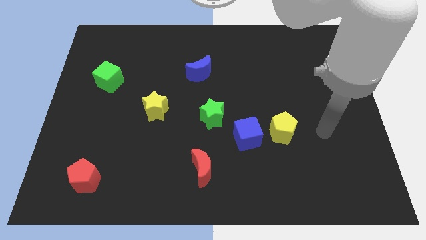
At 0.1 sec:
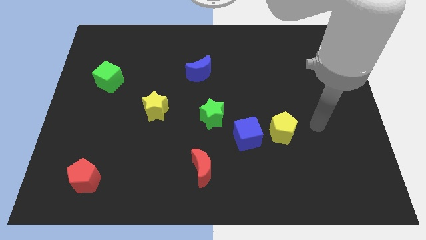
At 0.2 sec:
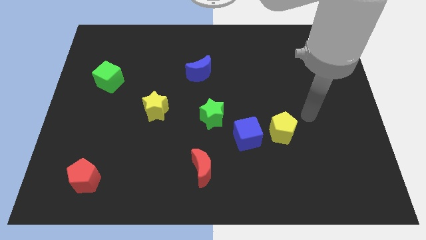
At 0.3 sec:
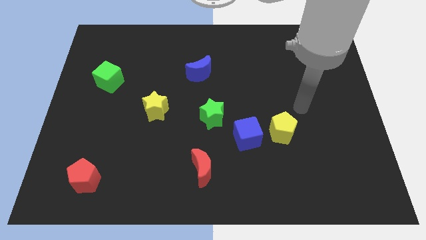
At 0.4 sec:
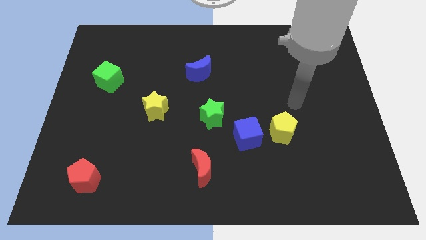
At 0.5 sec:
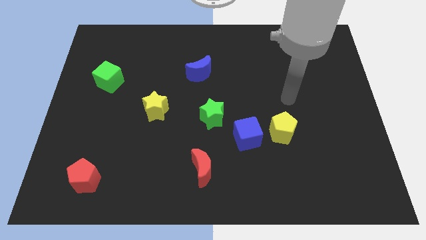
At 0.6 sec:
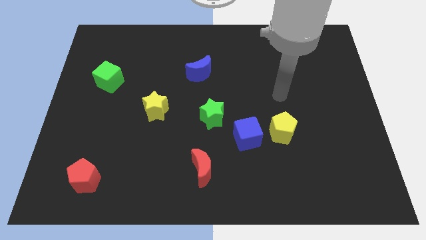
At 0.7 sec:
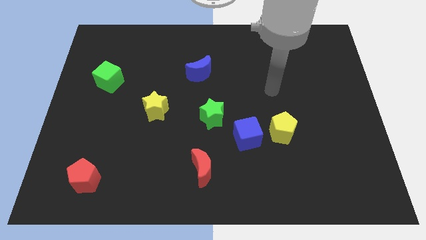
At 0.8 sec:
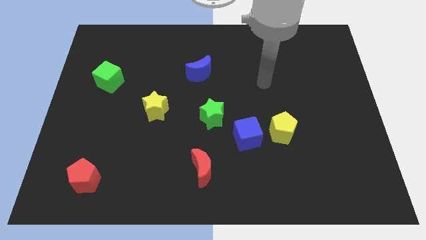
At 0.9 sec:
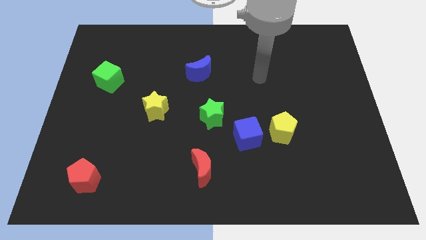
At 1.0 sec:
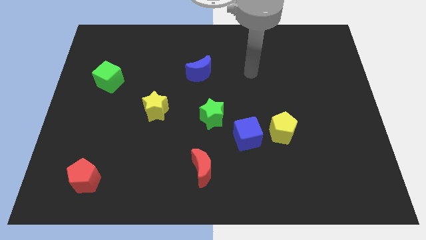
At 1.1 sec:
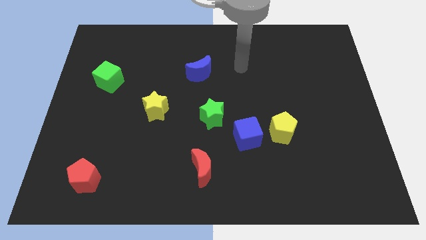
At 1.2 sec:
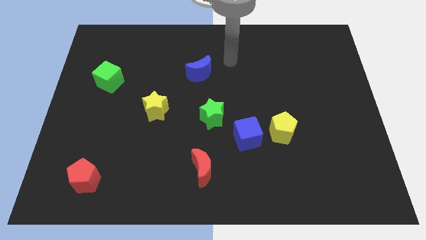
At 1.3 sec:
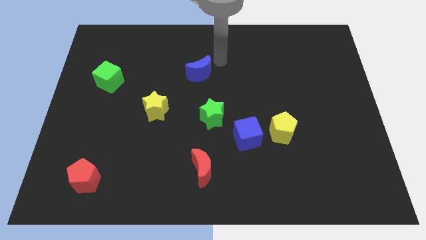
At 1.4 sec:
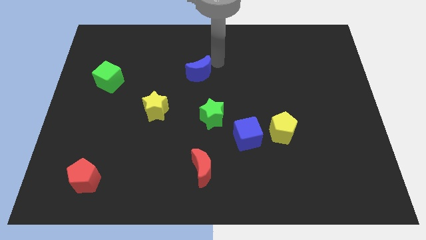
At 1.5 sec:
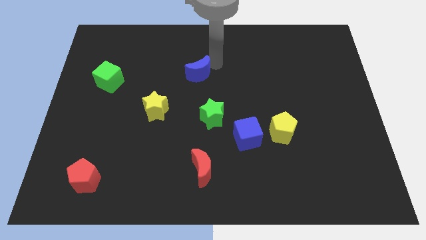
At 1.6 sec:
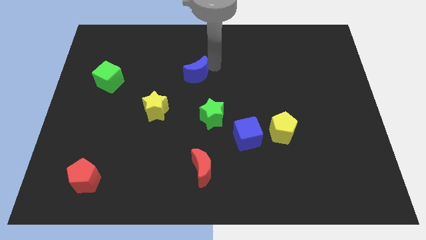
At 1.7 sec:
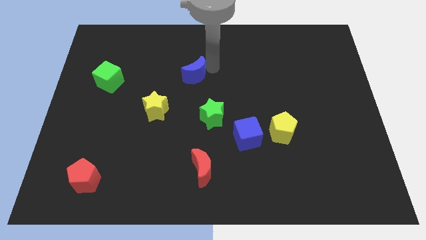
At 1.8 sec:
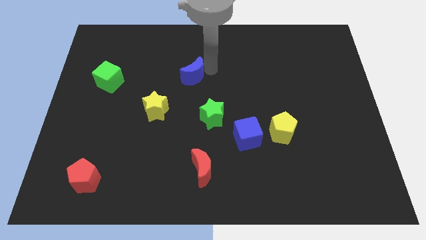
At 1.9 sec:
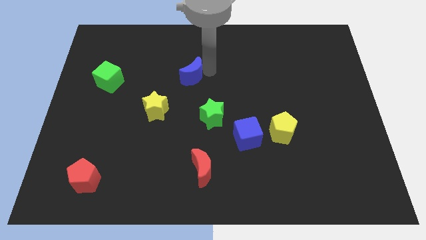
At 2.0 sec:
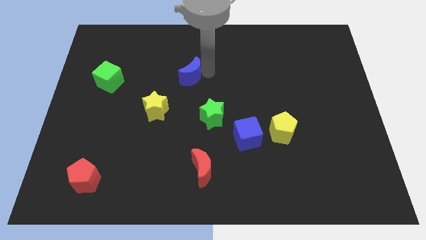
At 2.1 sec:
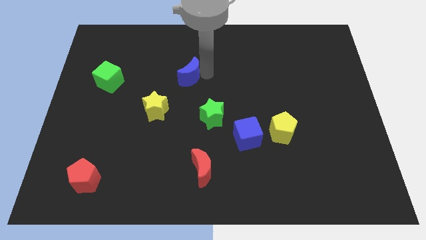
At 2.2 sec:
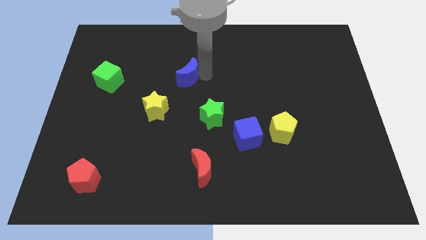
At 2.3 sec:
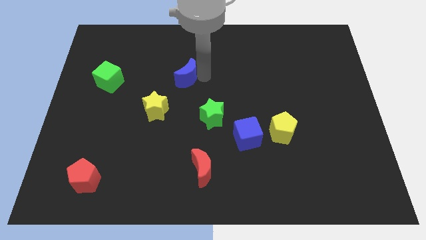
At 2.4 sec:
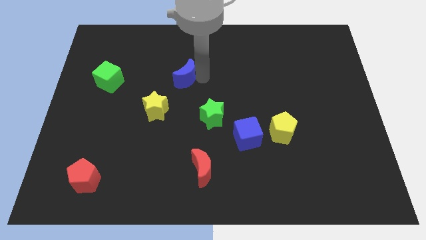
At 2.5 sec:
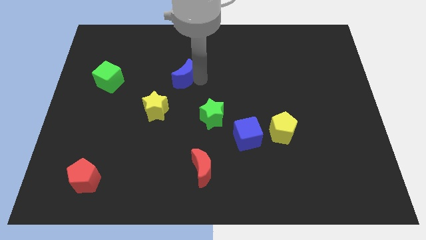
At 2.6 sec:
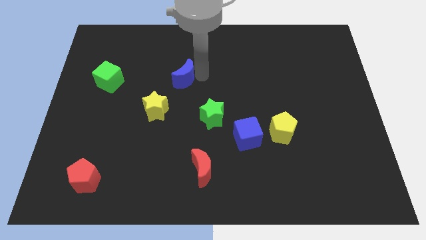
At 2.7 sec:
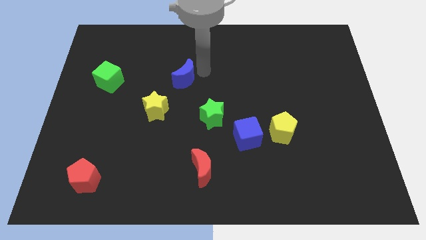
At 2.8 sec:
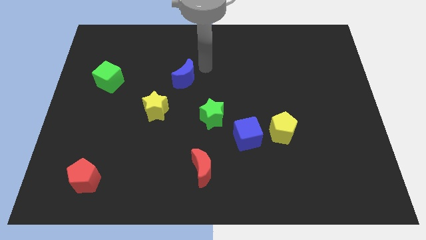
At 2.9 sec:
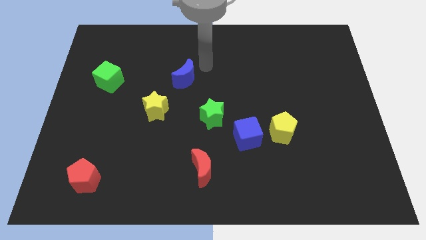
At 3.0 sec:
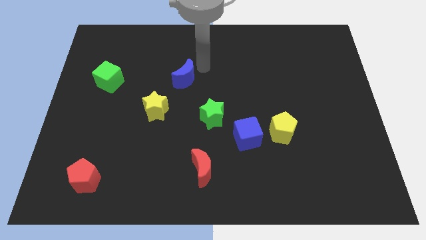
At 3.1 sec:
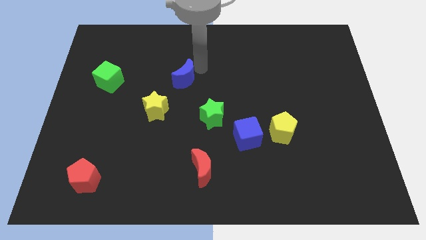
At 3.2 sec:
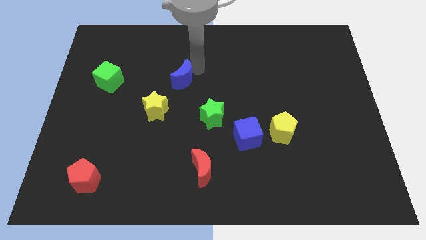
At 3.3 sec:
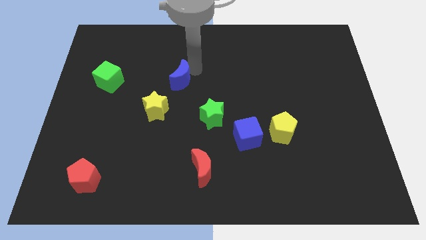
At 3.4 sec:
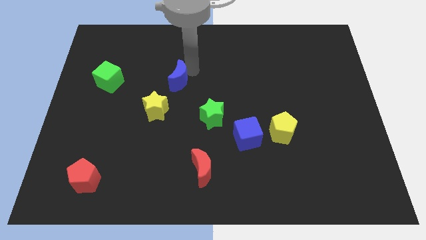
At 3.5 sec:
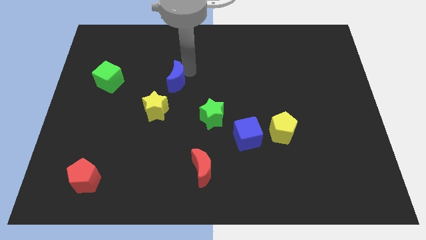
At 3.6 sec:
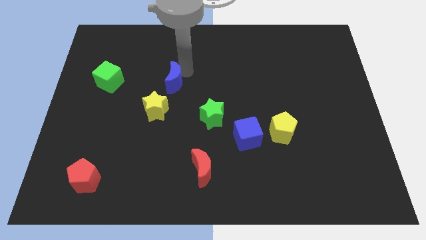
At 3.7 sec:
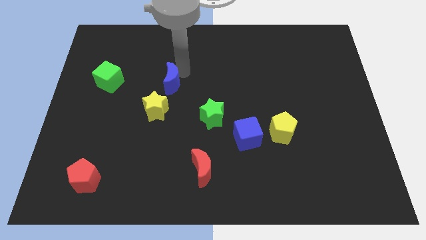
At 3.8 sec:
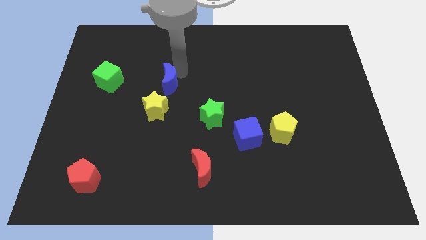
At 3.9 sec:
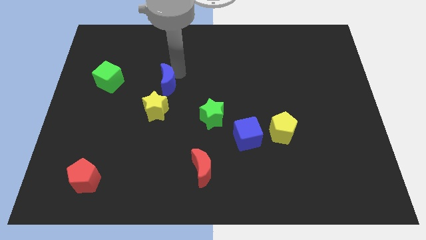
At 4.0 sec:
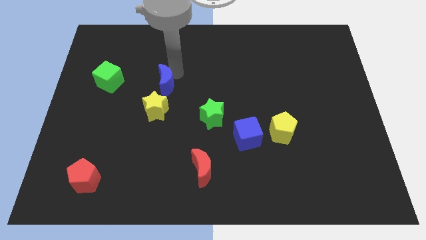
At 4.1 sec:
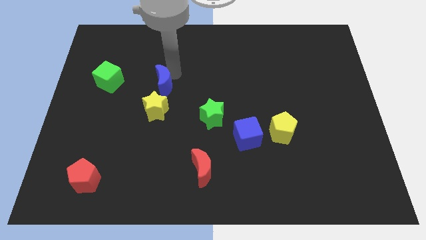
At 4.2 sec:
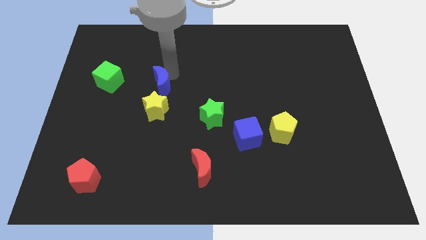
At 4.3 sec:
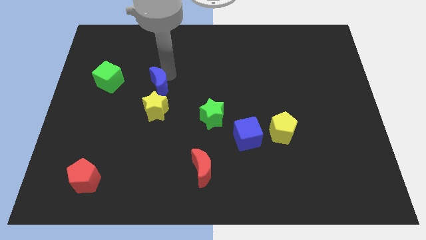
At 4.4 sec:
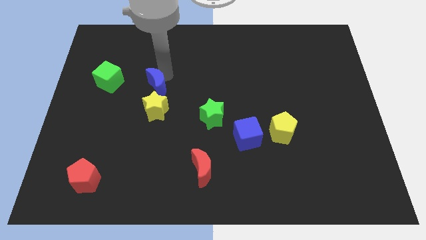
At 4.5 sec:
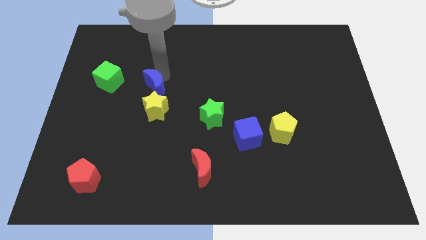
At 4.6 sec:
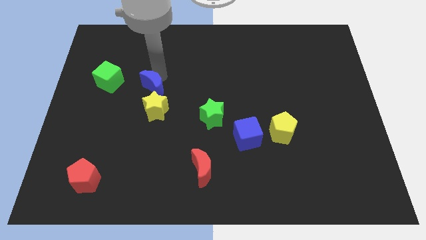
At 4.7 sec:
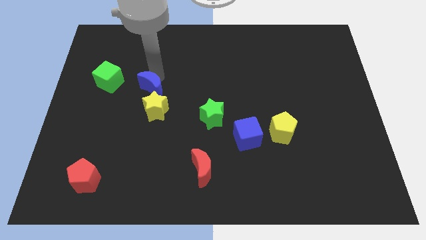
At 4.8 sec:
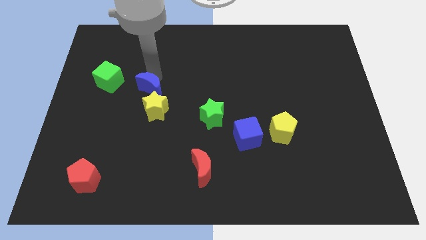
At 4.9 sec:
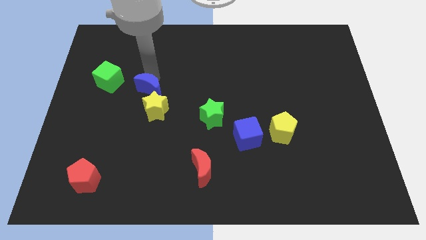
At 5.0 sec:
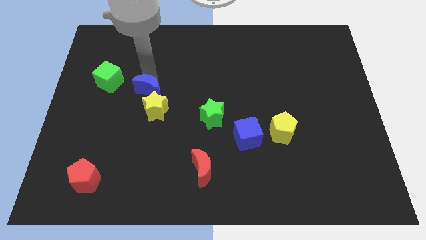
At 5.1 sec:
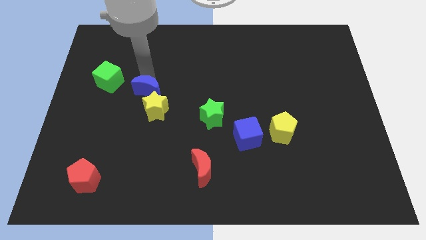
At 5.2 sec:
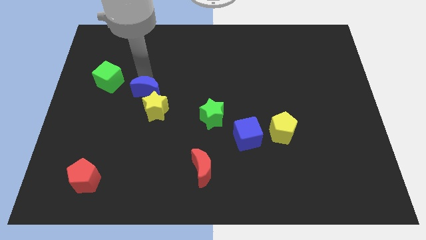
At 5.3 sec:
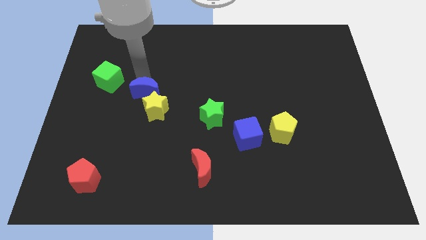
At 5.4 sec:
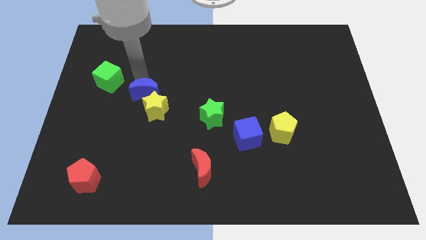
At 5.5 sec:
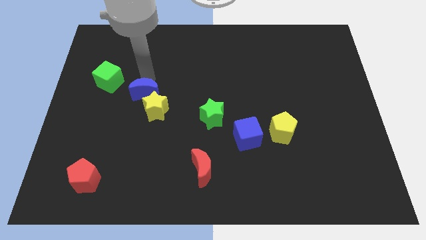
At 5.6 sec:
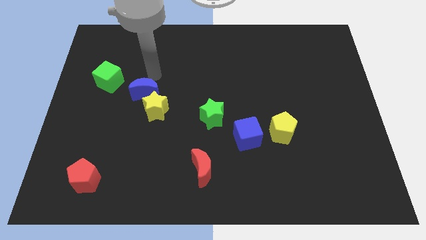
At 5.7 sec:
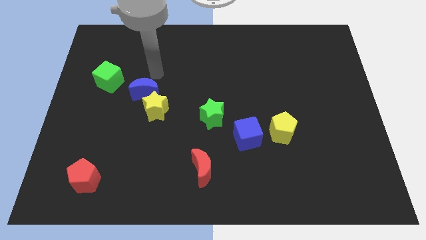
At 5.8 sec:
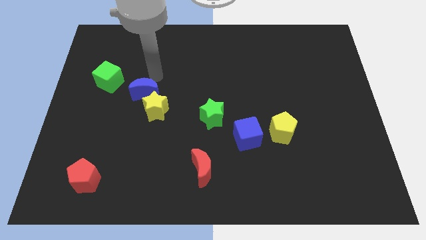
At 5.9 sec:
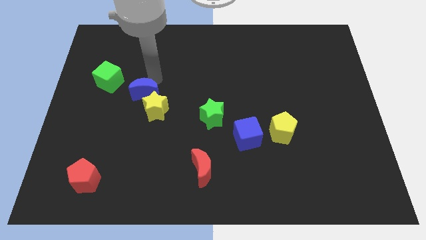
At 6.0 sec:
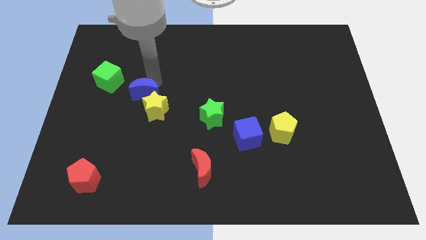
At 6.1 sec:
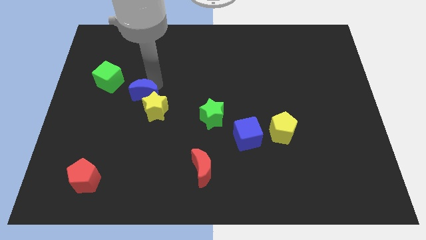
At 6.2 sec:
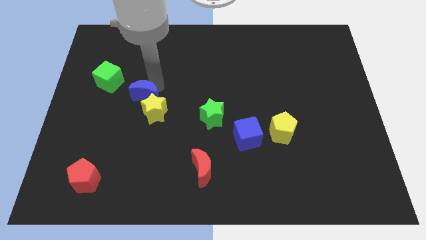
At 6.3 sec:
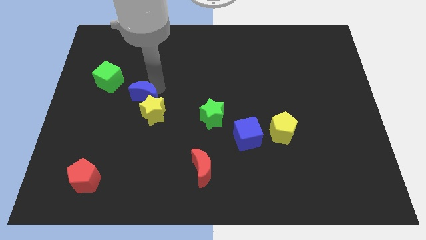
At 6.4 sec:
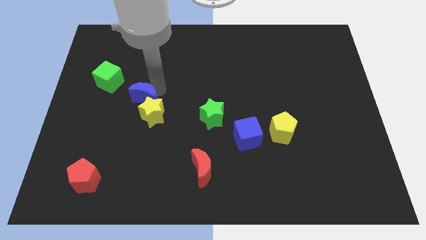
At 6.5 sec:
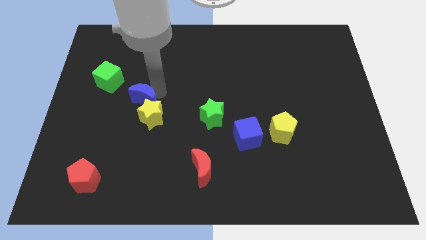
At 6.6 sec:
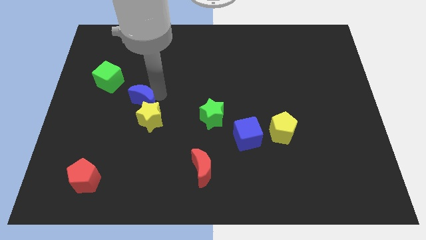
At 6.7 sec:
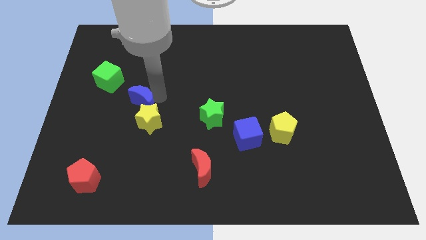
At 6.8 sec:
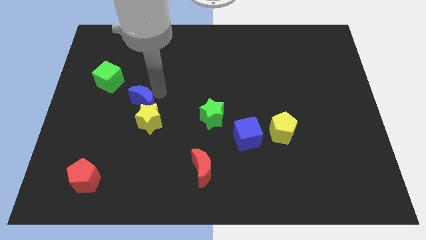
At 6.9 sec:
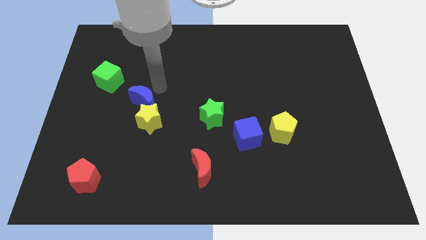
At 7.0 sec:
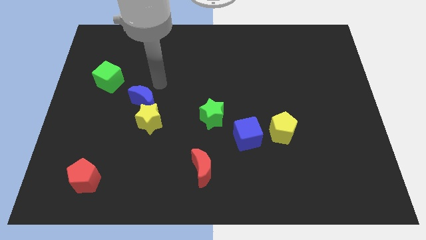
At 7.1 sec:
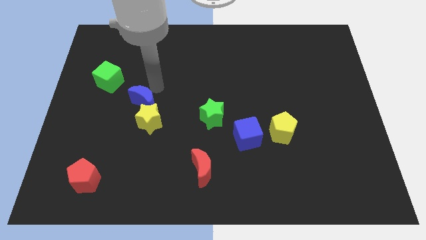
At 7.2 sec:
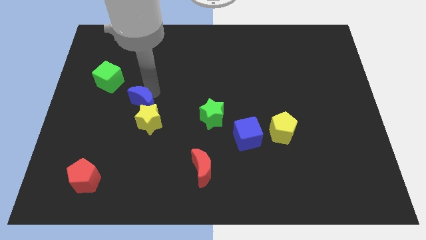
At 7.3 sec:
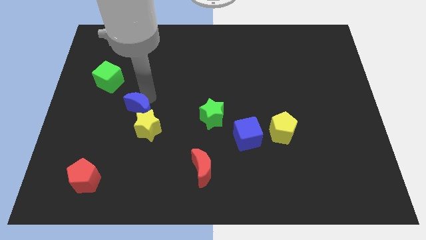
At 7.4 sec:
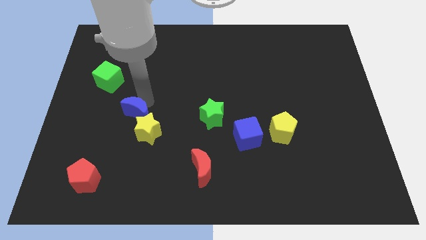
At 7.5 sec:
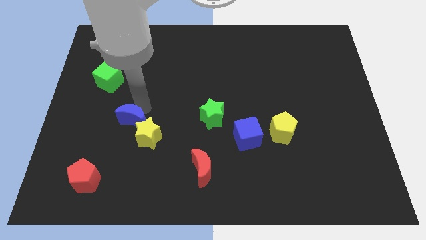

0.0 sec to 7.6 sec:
push the blue moon diagonally downwards and to the left

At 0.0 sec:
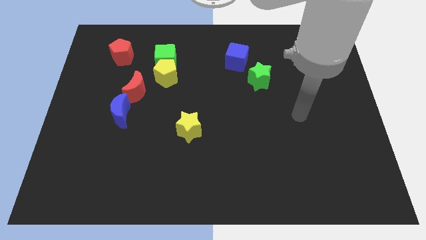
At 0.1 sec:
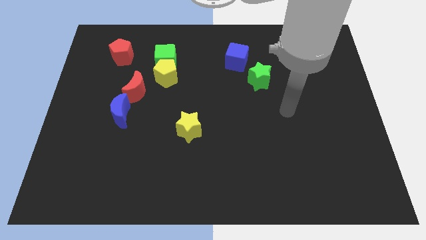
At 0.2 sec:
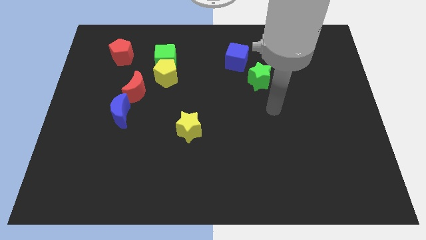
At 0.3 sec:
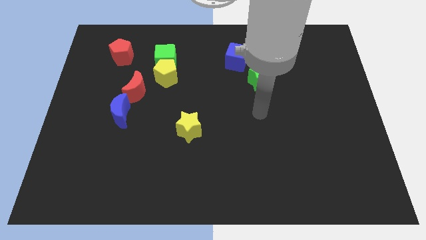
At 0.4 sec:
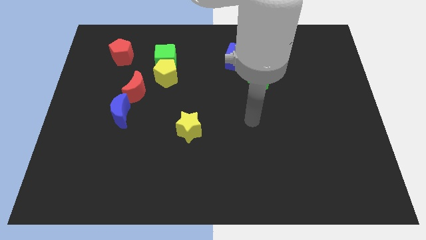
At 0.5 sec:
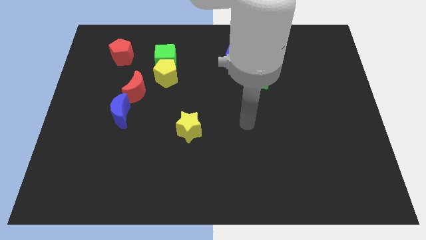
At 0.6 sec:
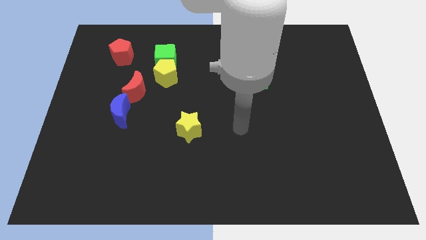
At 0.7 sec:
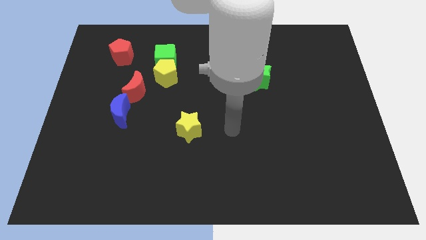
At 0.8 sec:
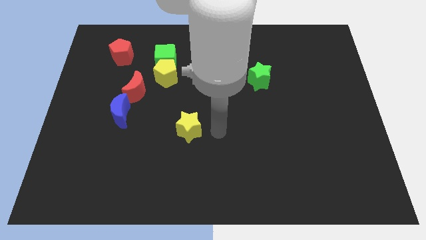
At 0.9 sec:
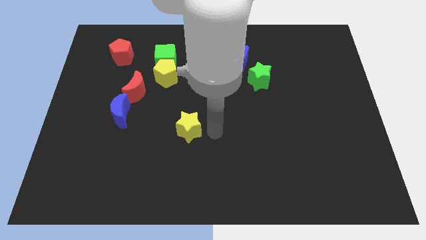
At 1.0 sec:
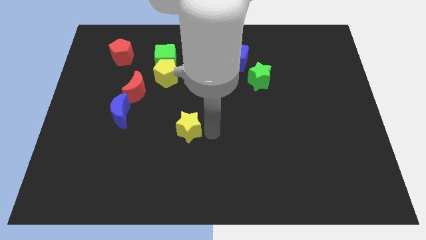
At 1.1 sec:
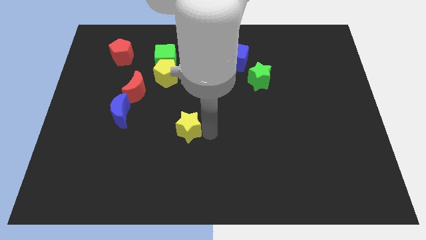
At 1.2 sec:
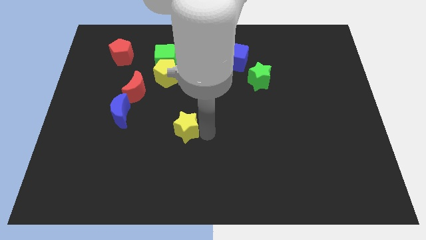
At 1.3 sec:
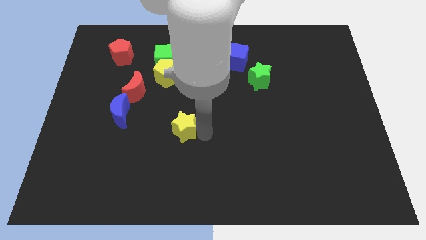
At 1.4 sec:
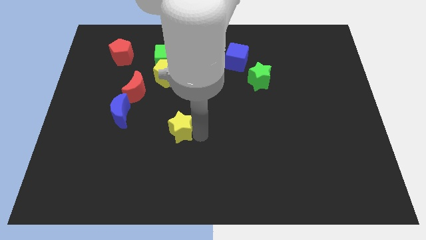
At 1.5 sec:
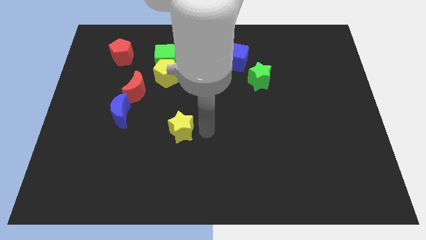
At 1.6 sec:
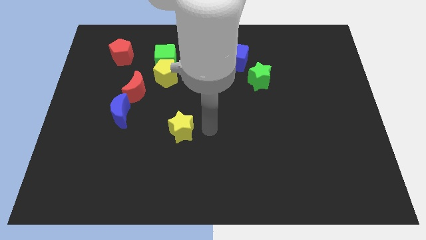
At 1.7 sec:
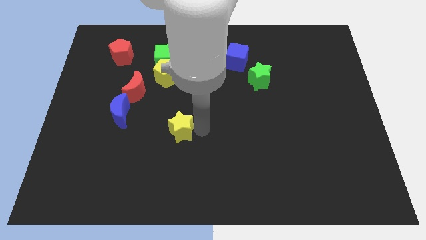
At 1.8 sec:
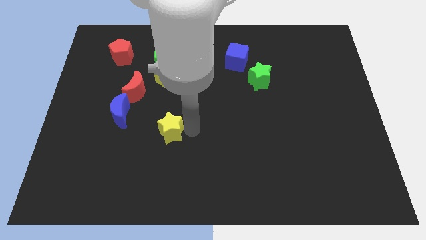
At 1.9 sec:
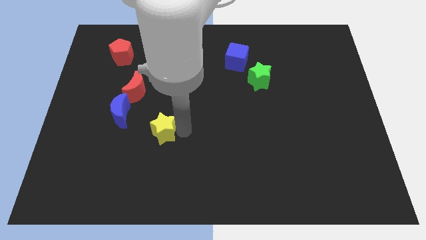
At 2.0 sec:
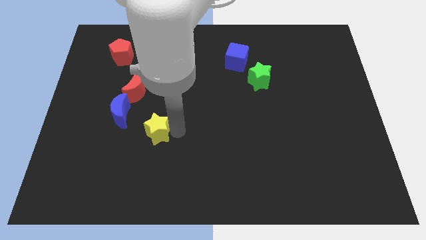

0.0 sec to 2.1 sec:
move the yellow star left slightly
